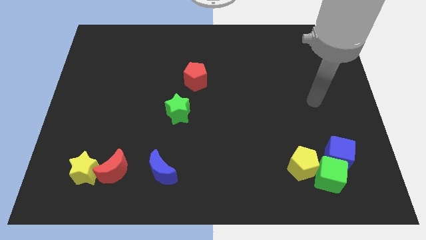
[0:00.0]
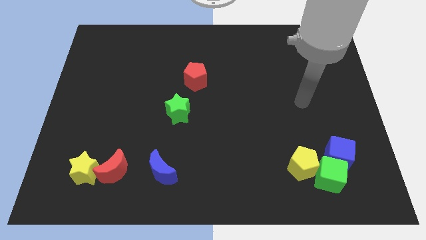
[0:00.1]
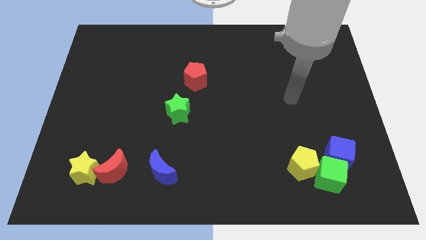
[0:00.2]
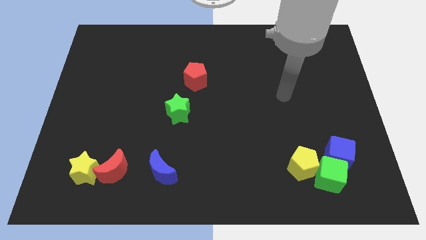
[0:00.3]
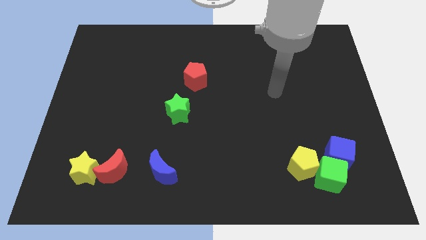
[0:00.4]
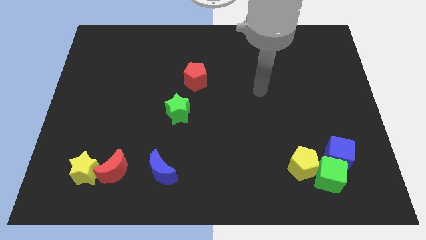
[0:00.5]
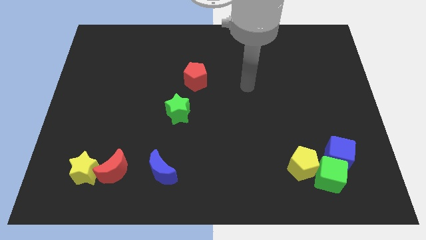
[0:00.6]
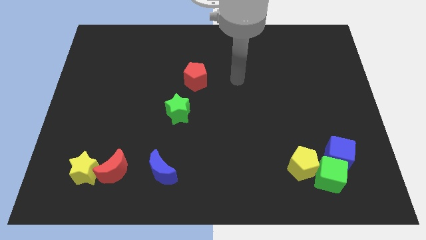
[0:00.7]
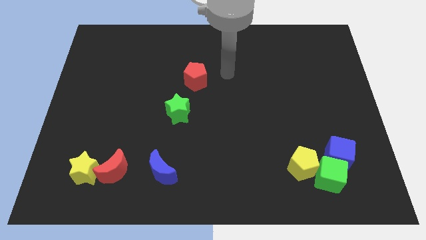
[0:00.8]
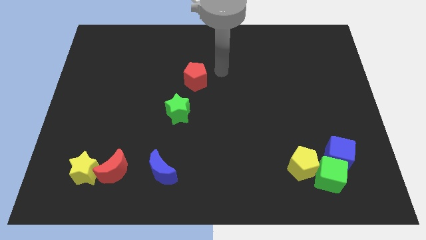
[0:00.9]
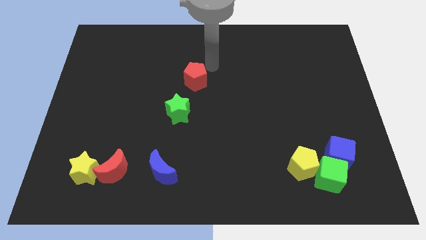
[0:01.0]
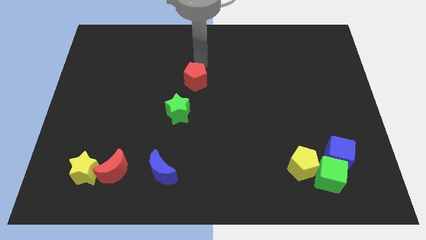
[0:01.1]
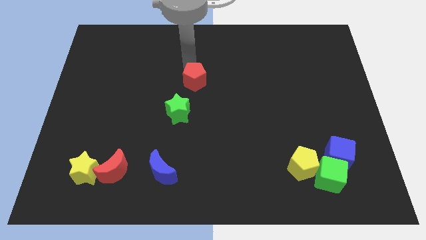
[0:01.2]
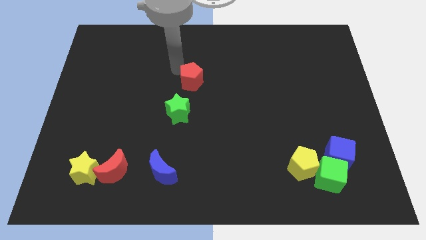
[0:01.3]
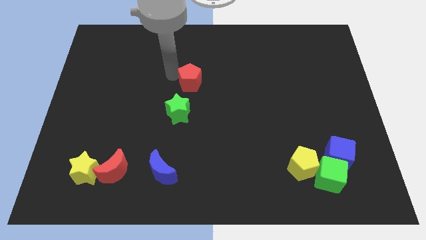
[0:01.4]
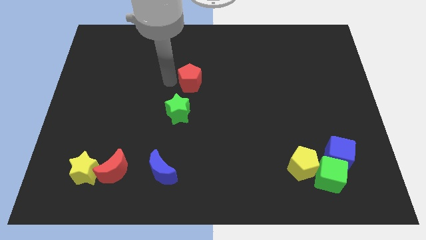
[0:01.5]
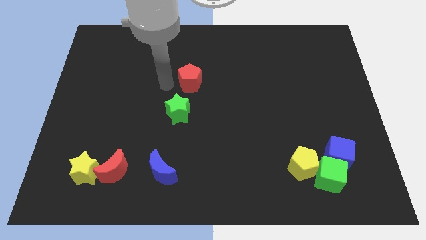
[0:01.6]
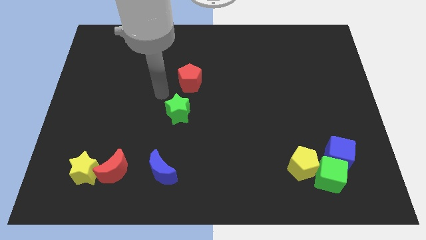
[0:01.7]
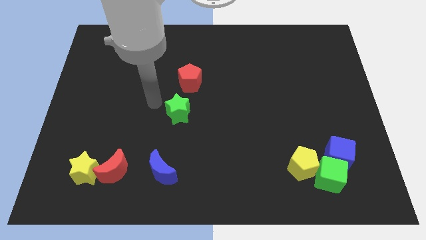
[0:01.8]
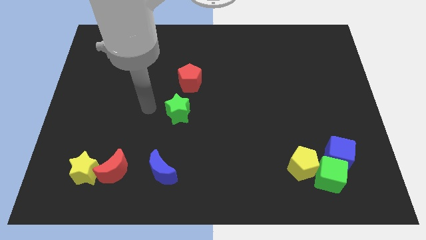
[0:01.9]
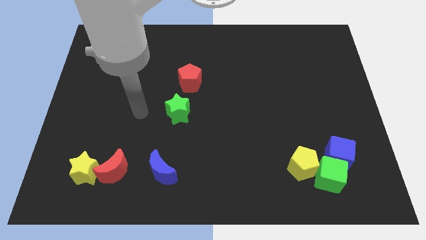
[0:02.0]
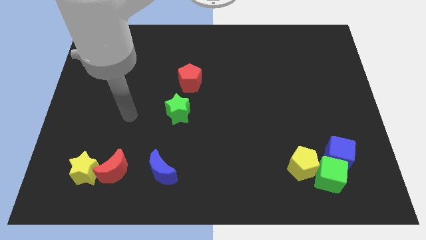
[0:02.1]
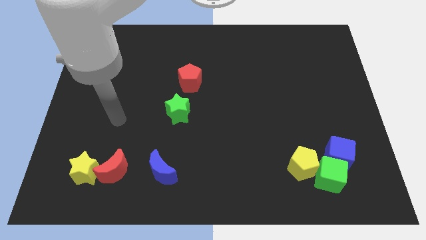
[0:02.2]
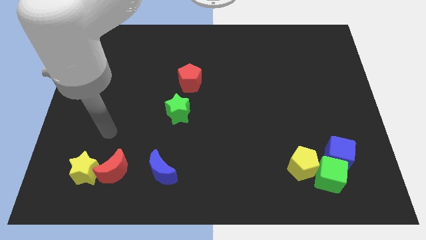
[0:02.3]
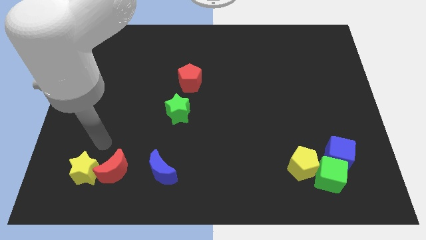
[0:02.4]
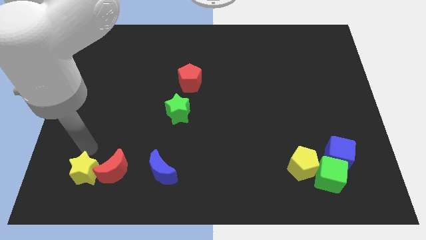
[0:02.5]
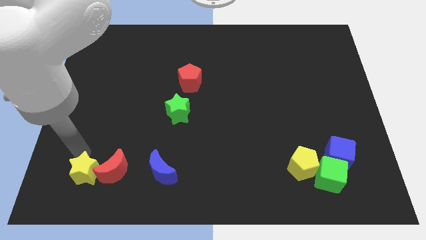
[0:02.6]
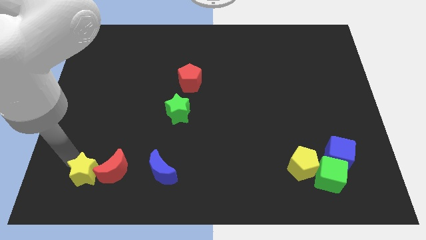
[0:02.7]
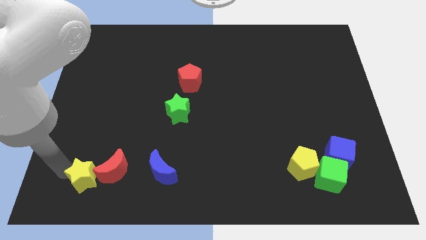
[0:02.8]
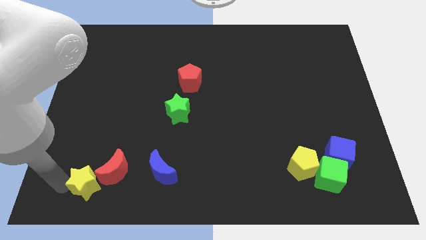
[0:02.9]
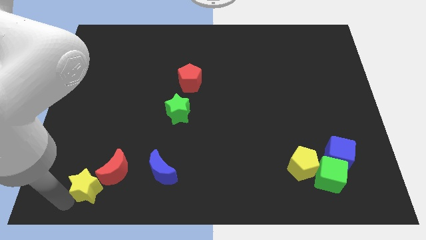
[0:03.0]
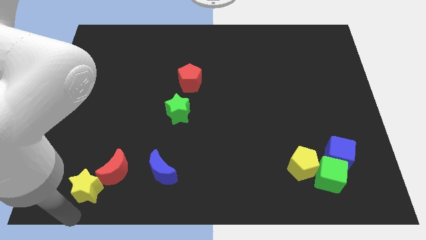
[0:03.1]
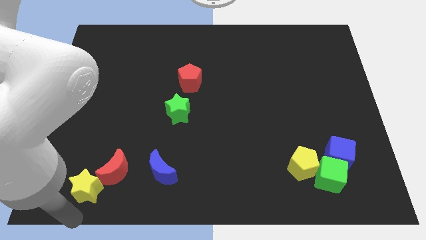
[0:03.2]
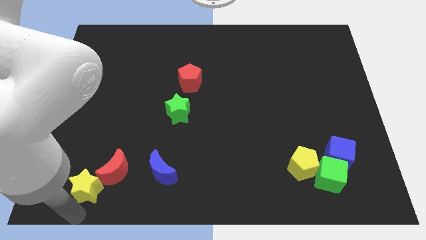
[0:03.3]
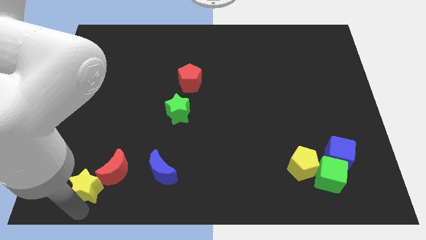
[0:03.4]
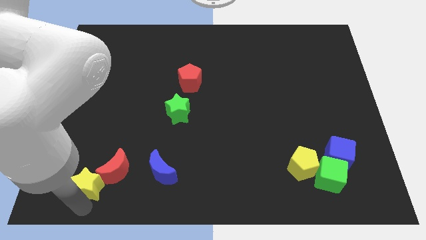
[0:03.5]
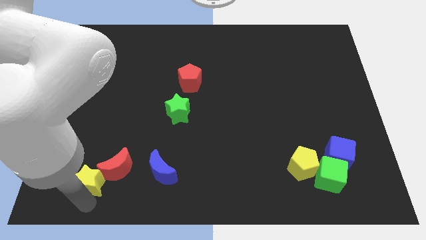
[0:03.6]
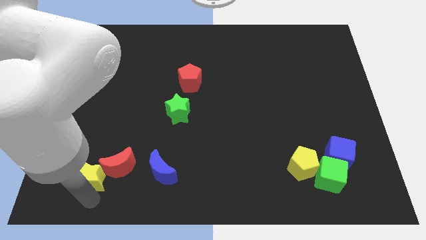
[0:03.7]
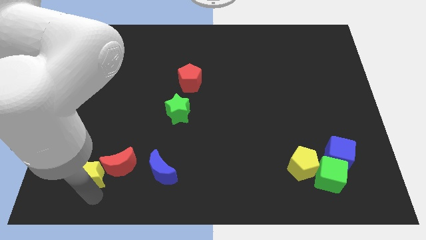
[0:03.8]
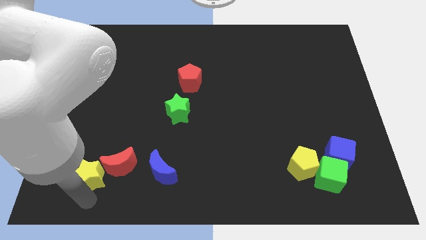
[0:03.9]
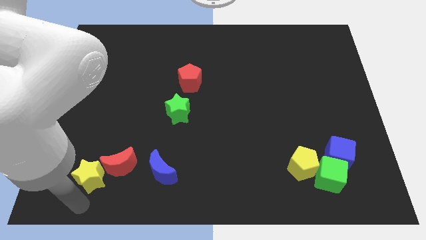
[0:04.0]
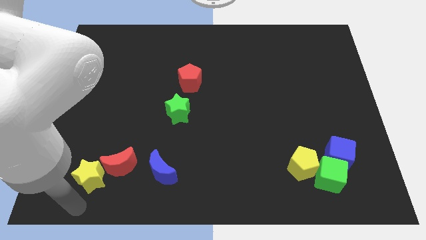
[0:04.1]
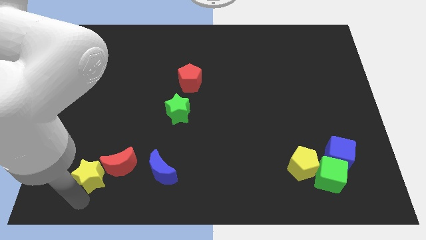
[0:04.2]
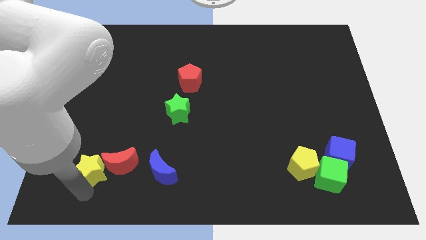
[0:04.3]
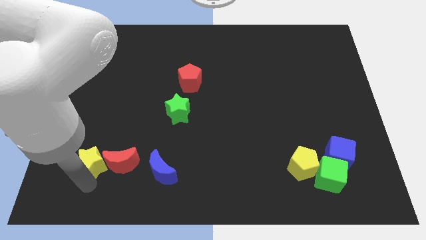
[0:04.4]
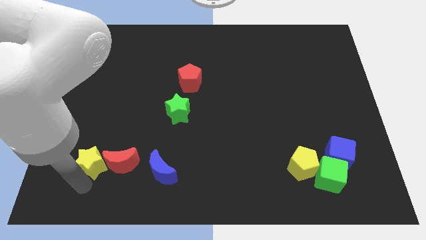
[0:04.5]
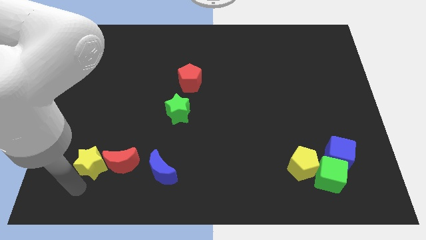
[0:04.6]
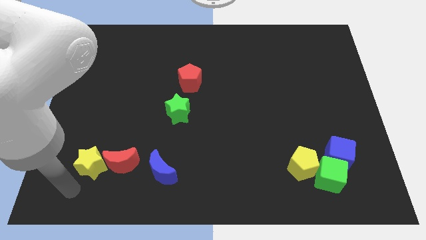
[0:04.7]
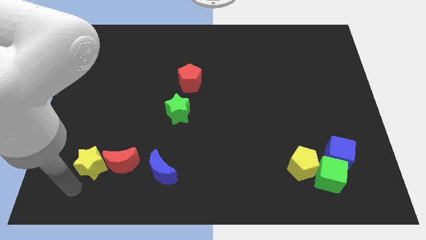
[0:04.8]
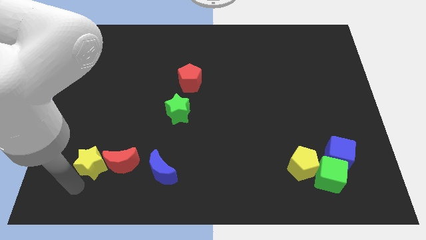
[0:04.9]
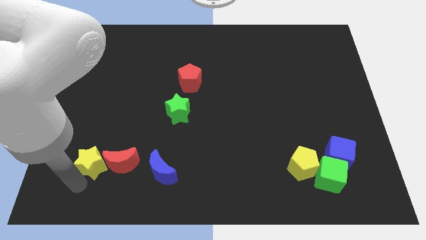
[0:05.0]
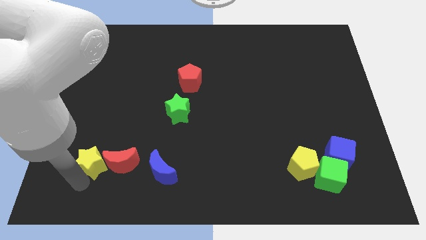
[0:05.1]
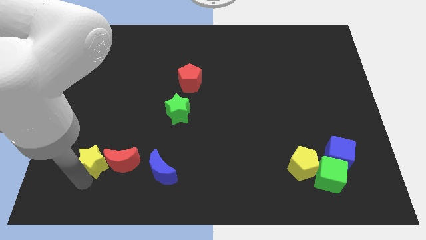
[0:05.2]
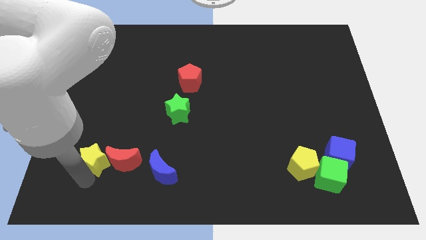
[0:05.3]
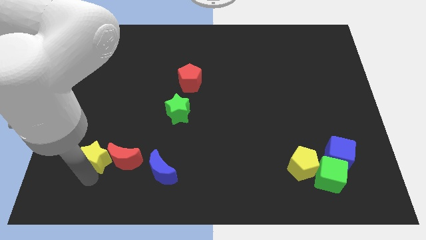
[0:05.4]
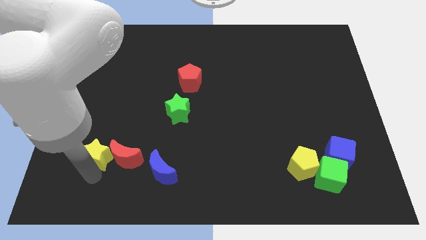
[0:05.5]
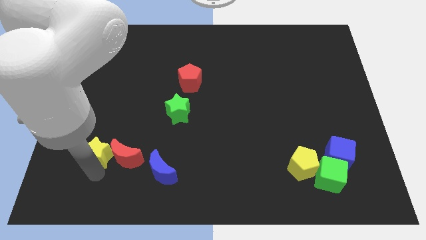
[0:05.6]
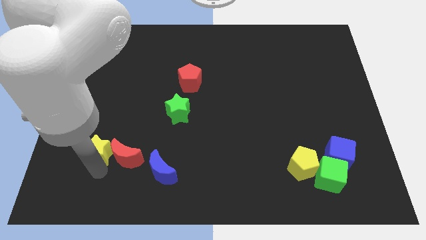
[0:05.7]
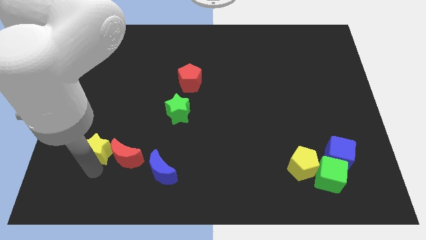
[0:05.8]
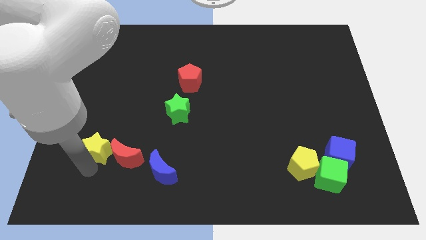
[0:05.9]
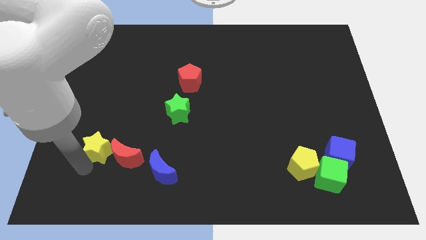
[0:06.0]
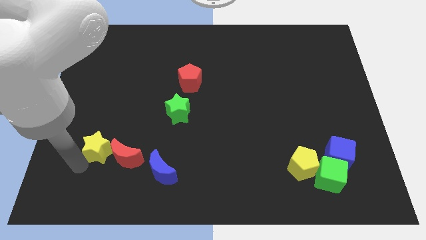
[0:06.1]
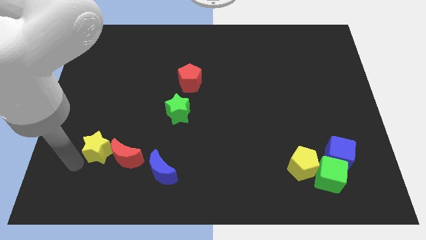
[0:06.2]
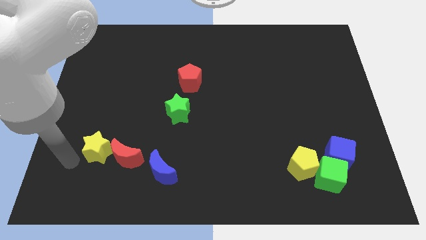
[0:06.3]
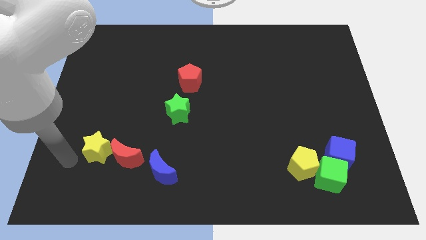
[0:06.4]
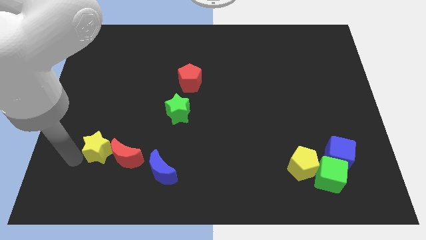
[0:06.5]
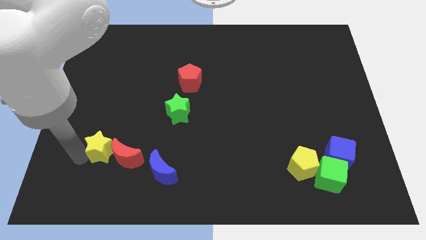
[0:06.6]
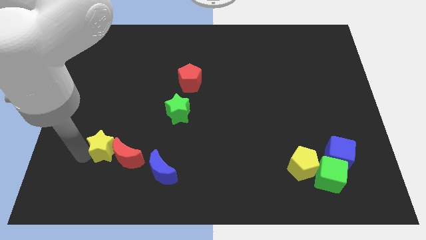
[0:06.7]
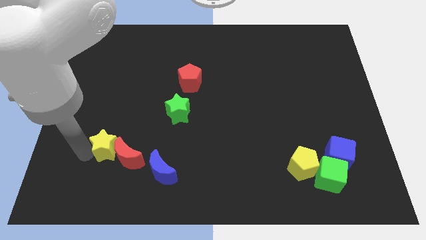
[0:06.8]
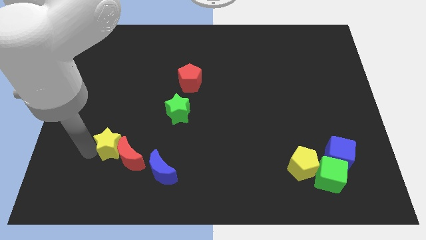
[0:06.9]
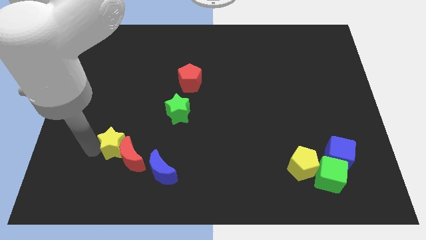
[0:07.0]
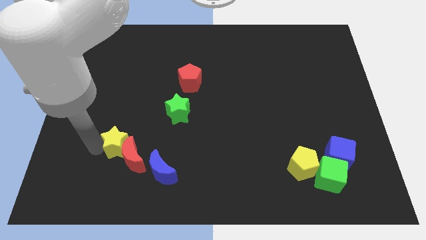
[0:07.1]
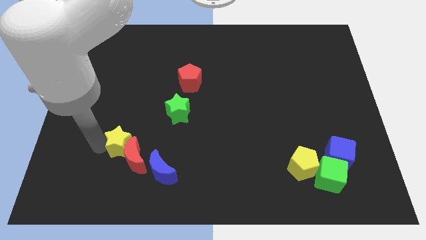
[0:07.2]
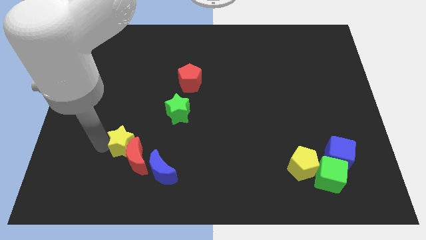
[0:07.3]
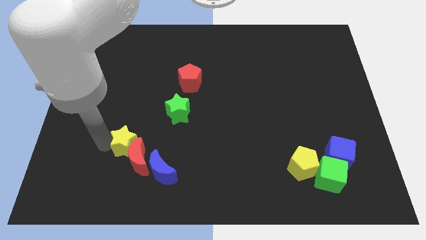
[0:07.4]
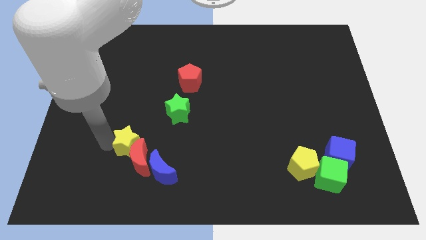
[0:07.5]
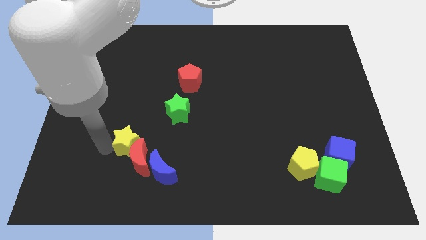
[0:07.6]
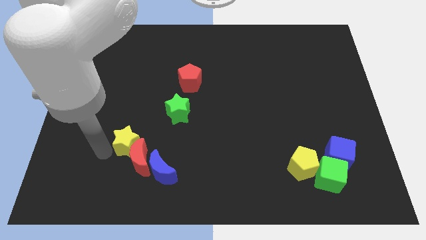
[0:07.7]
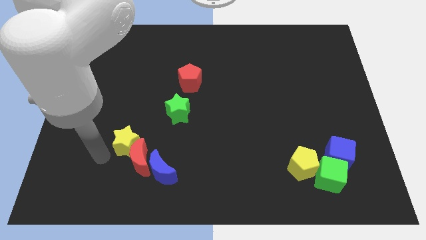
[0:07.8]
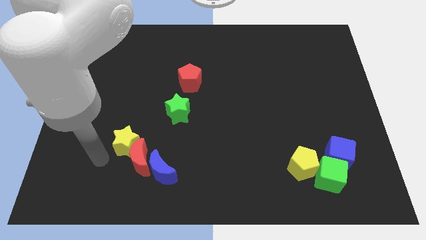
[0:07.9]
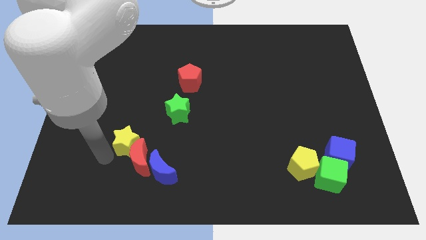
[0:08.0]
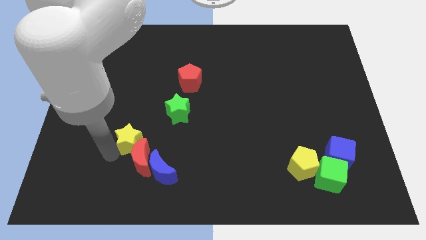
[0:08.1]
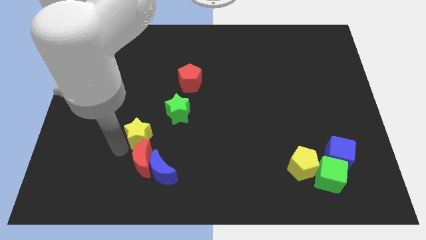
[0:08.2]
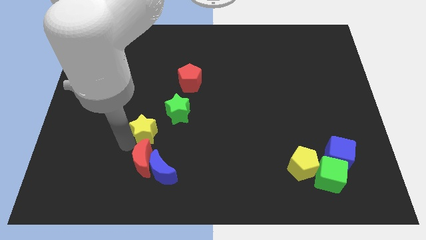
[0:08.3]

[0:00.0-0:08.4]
slide the yellow star to the top of the blue moon
